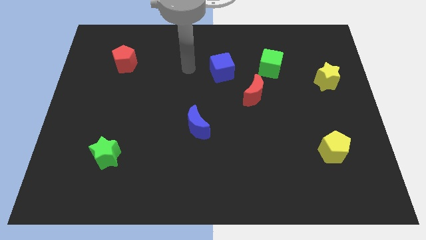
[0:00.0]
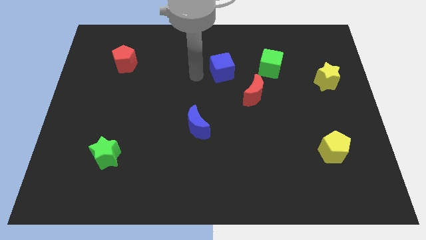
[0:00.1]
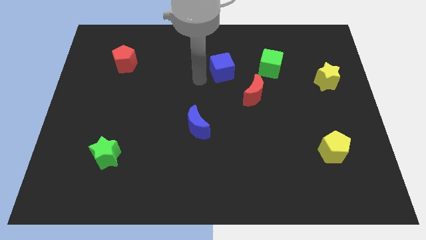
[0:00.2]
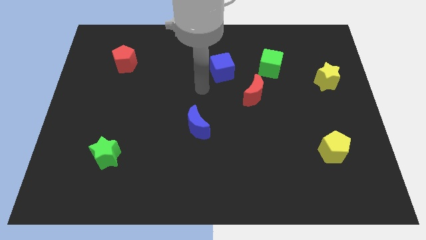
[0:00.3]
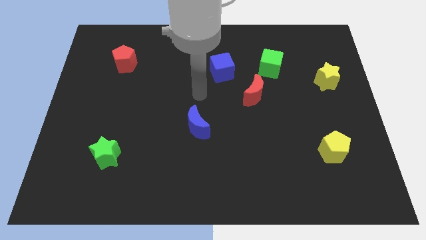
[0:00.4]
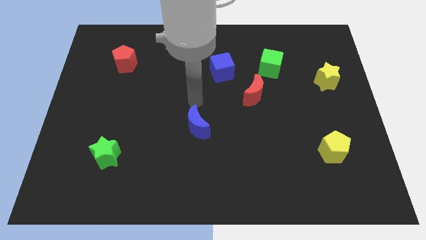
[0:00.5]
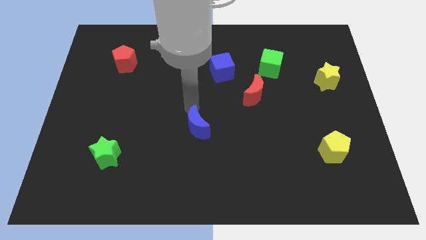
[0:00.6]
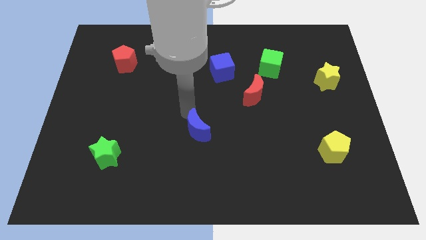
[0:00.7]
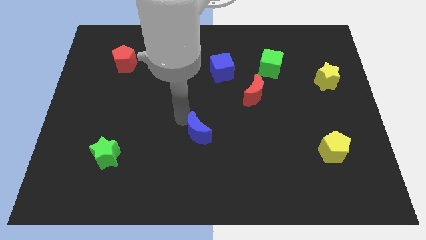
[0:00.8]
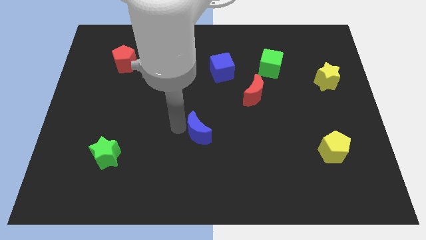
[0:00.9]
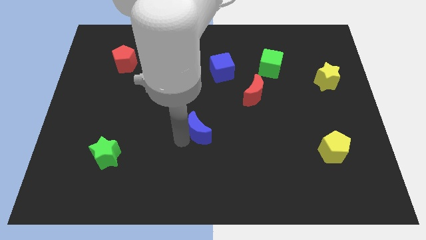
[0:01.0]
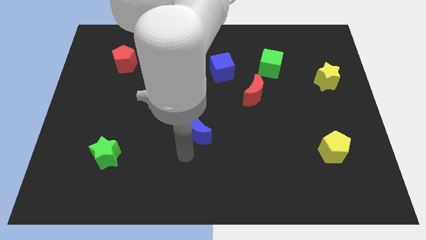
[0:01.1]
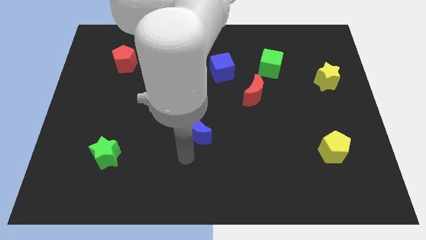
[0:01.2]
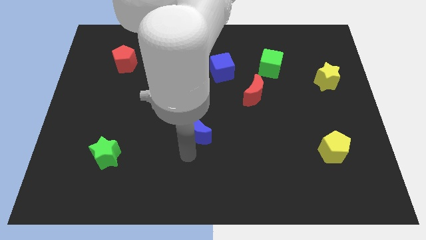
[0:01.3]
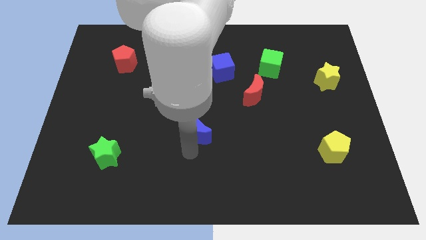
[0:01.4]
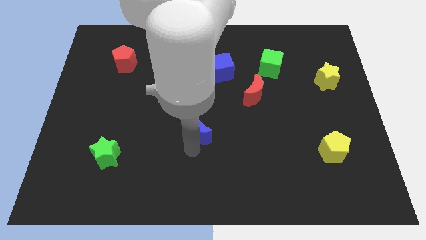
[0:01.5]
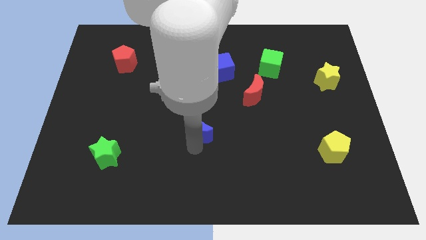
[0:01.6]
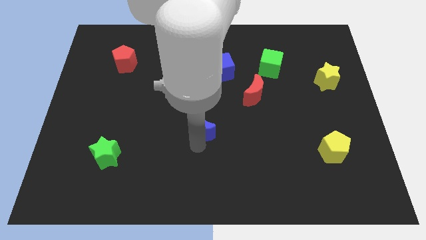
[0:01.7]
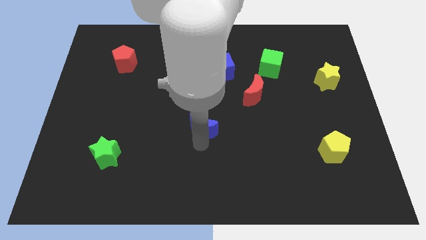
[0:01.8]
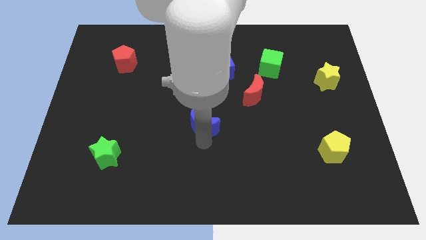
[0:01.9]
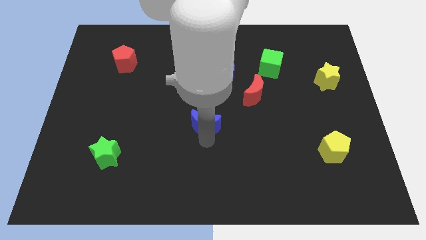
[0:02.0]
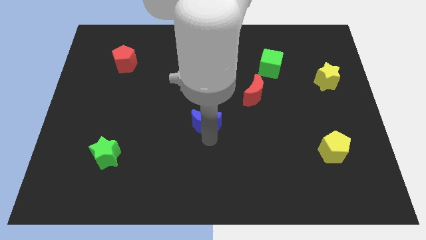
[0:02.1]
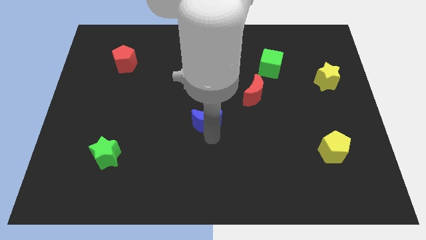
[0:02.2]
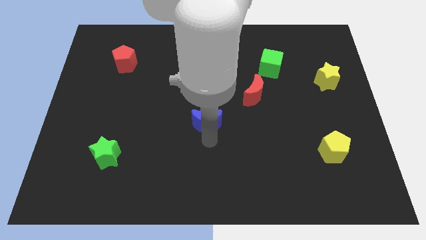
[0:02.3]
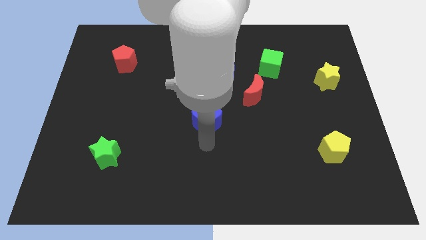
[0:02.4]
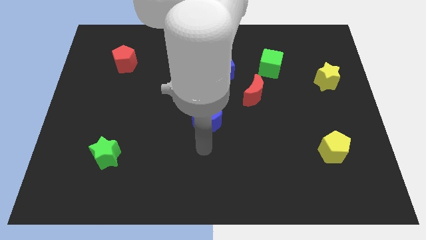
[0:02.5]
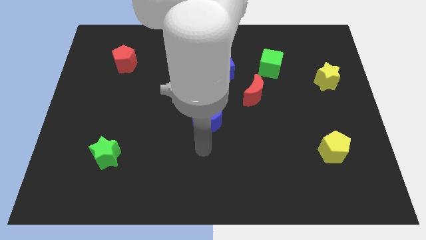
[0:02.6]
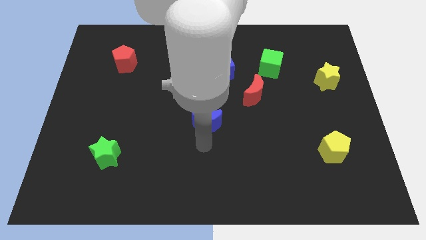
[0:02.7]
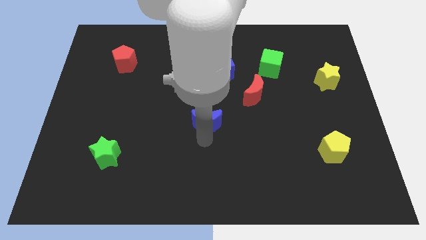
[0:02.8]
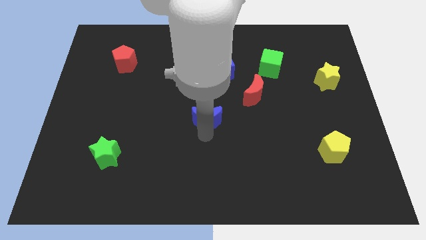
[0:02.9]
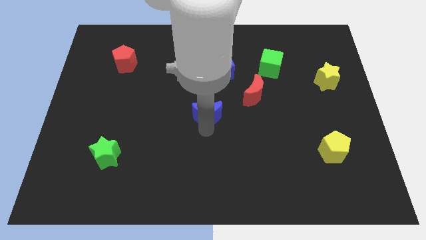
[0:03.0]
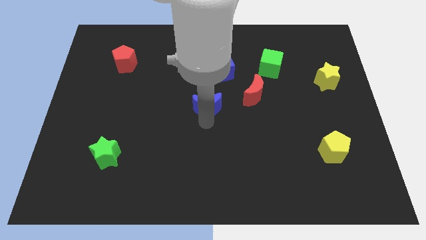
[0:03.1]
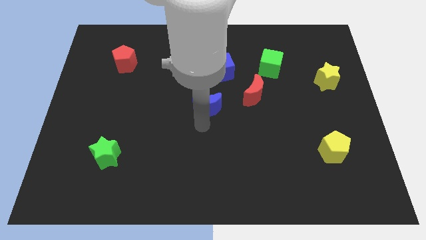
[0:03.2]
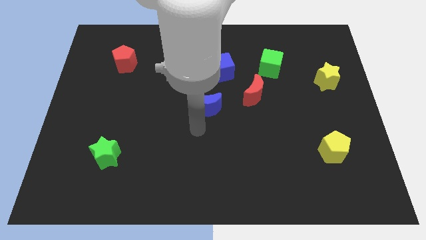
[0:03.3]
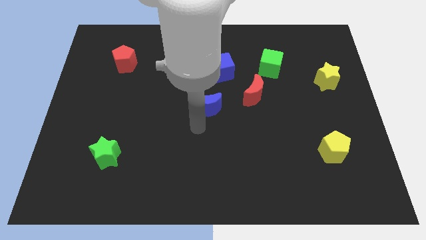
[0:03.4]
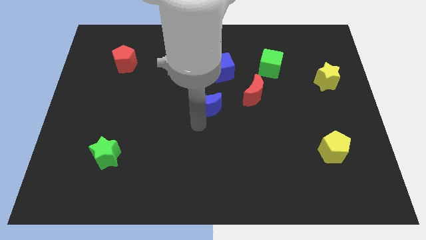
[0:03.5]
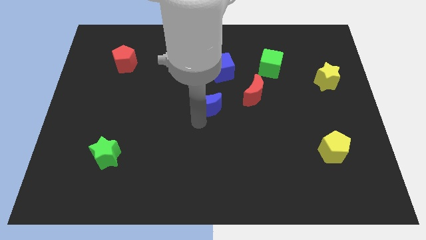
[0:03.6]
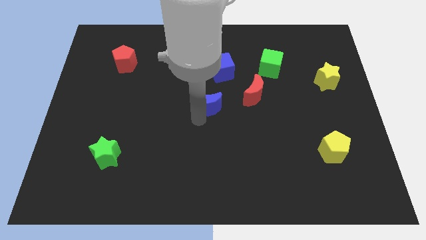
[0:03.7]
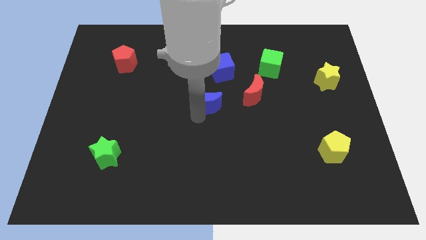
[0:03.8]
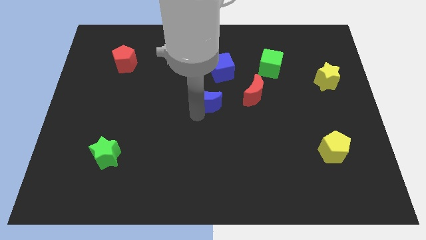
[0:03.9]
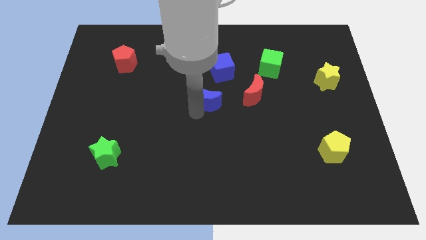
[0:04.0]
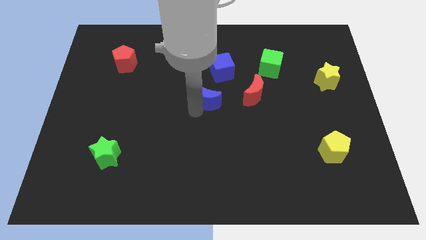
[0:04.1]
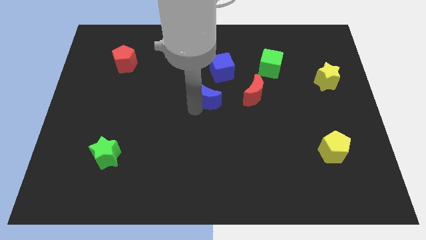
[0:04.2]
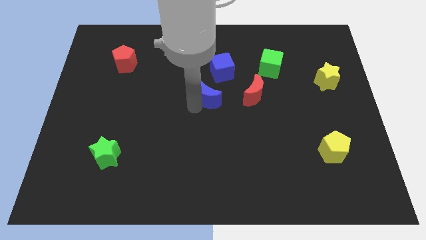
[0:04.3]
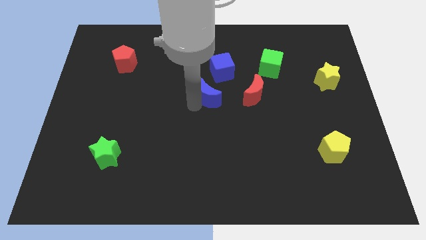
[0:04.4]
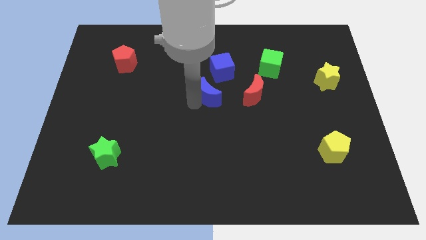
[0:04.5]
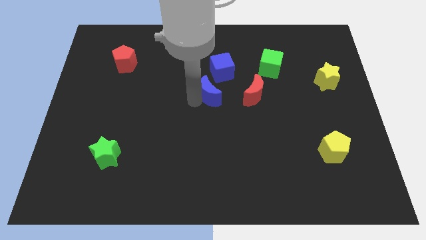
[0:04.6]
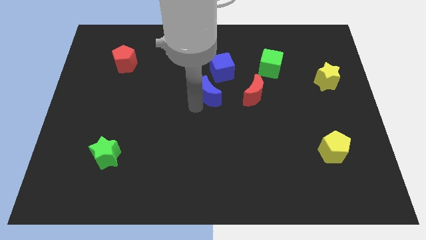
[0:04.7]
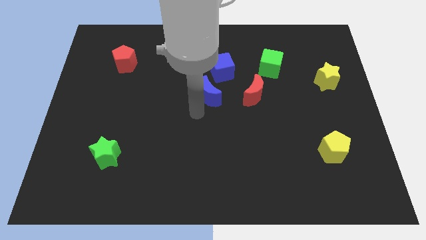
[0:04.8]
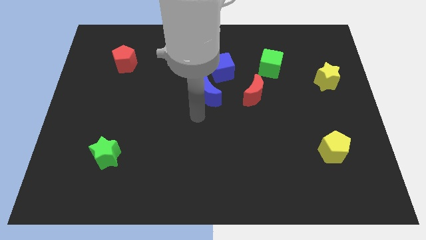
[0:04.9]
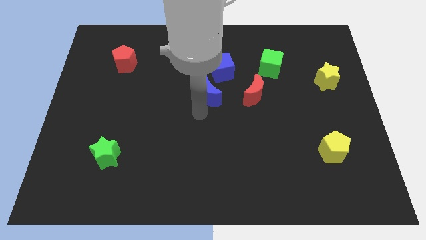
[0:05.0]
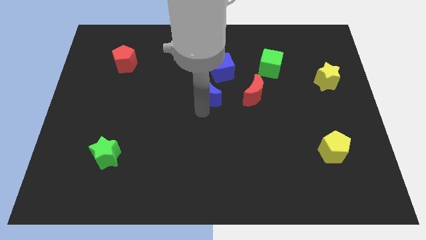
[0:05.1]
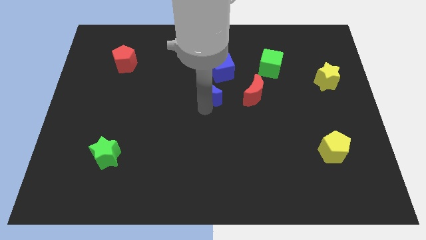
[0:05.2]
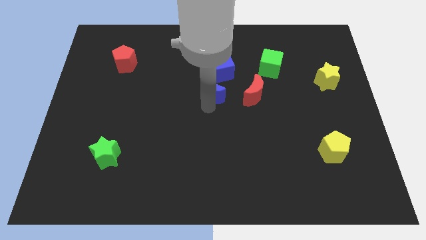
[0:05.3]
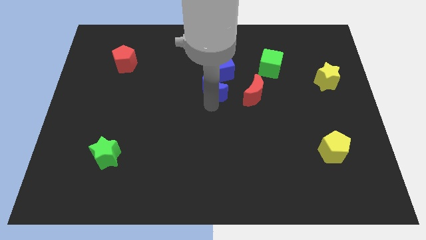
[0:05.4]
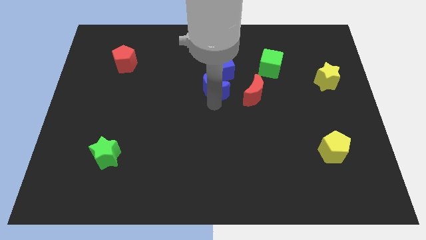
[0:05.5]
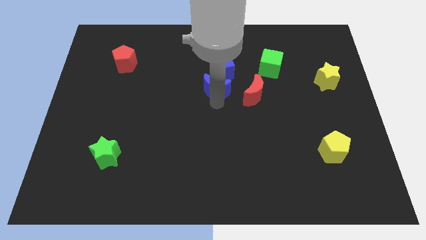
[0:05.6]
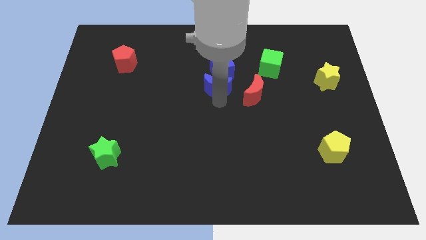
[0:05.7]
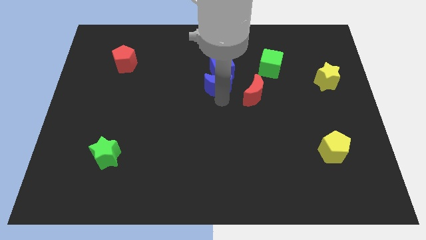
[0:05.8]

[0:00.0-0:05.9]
push the blue moon to the blue cube

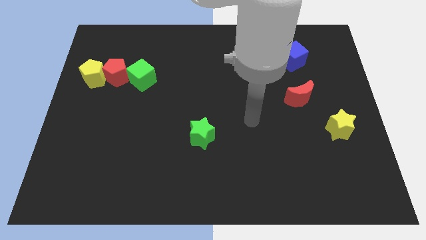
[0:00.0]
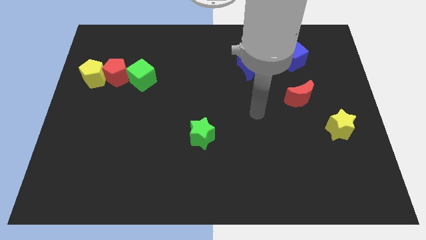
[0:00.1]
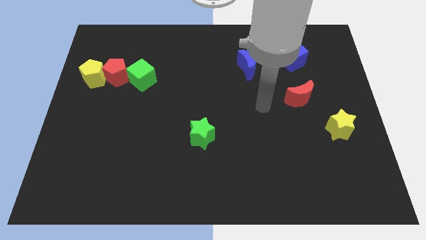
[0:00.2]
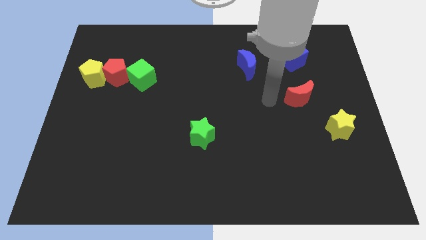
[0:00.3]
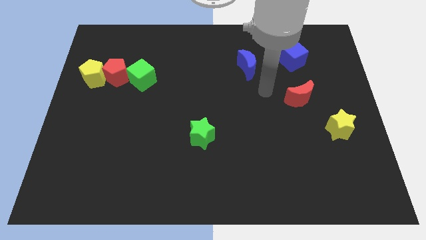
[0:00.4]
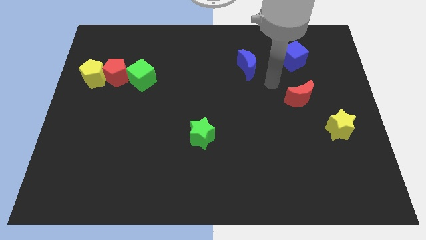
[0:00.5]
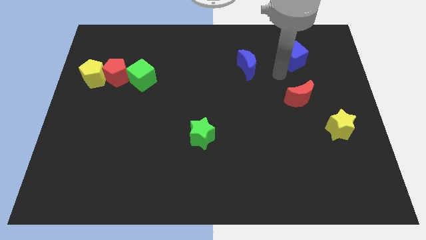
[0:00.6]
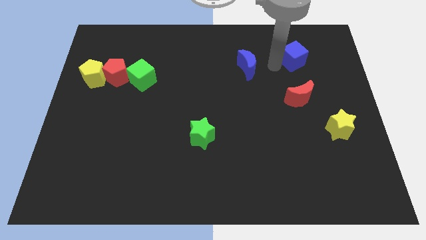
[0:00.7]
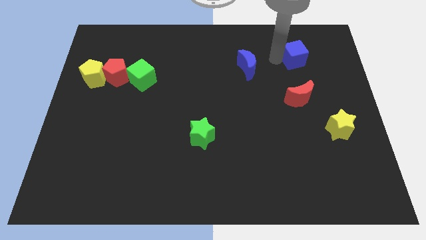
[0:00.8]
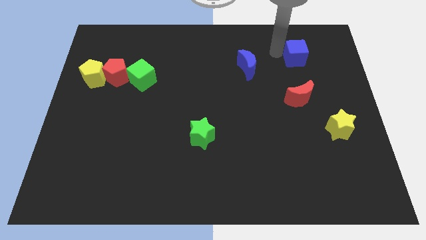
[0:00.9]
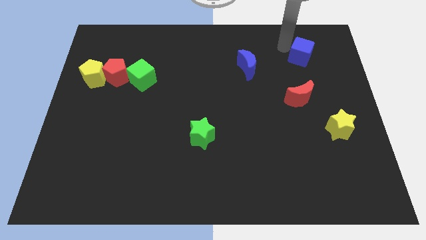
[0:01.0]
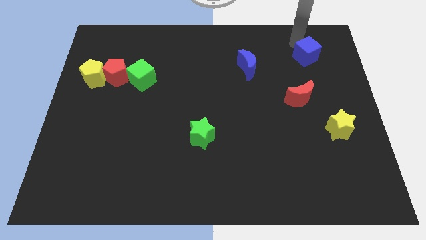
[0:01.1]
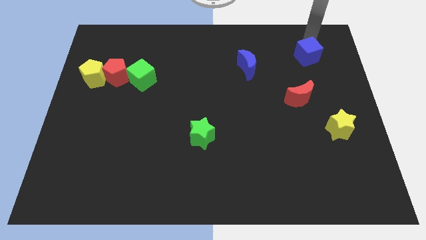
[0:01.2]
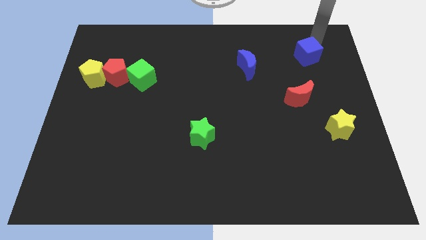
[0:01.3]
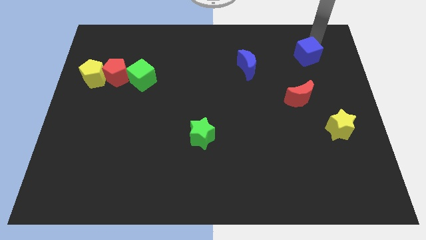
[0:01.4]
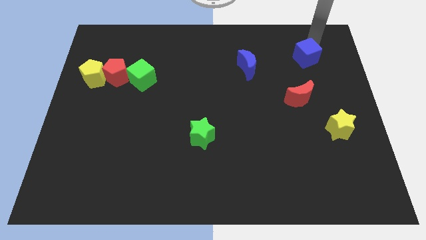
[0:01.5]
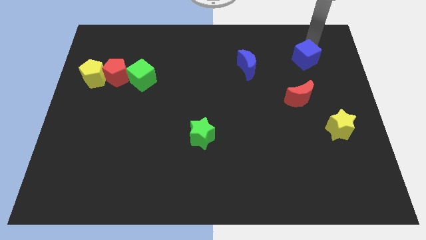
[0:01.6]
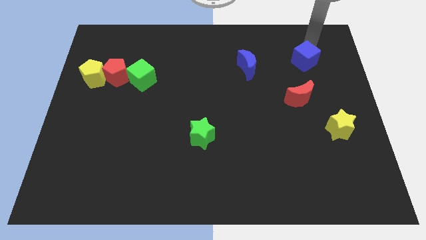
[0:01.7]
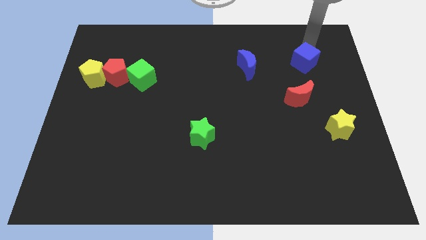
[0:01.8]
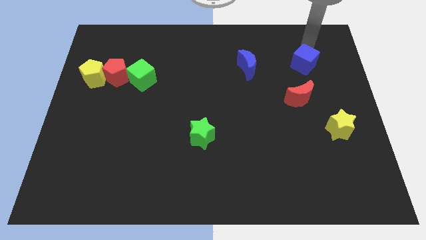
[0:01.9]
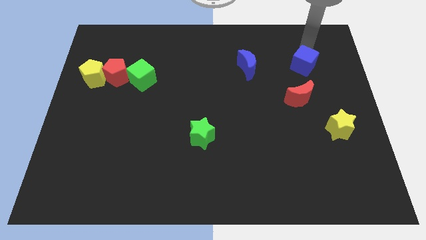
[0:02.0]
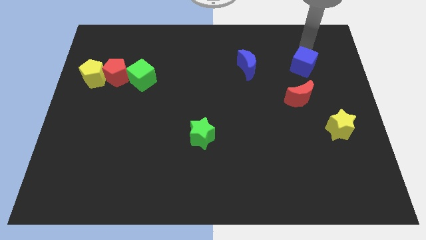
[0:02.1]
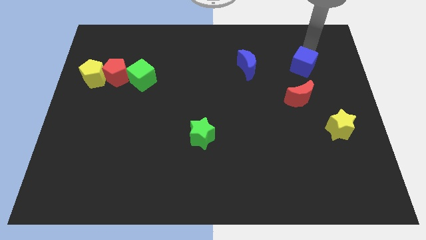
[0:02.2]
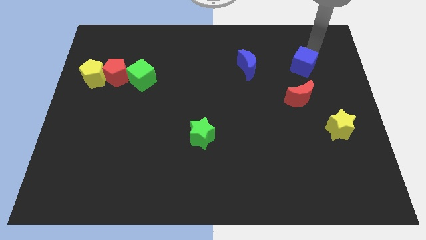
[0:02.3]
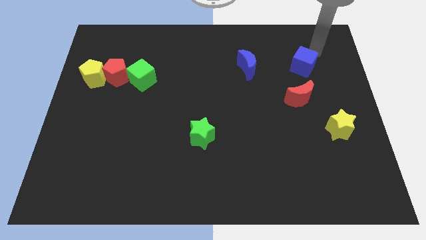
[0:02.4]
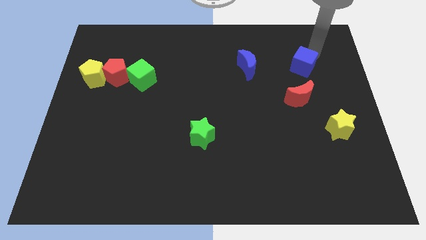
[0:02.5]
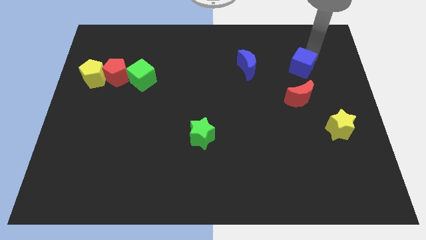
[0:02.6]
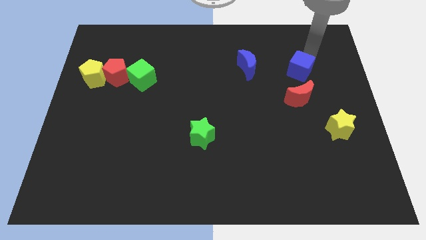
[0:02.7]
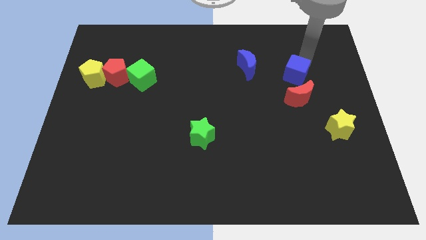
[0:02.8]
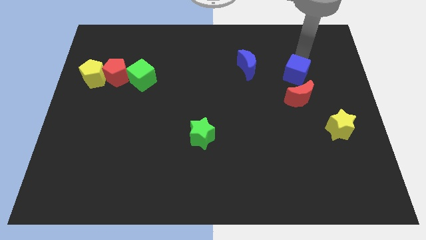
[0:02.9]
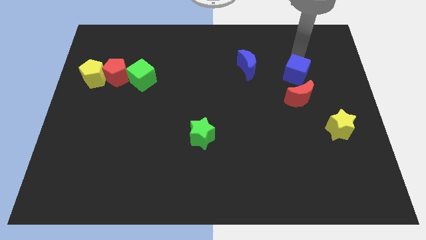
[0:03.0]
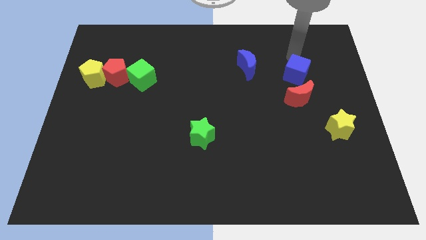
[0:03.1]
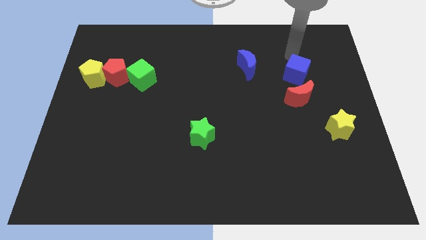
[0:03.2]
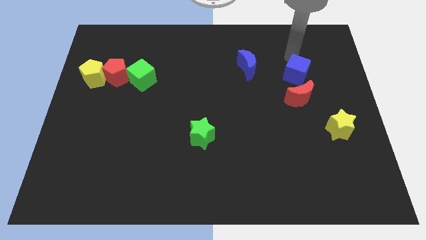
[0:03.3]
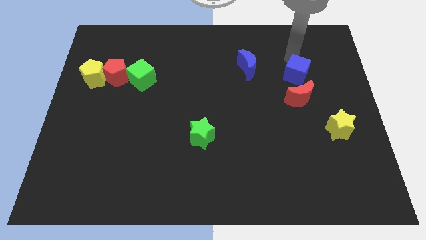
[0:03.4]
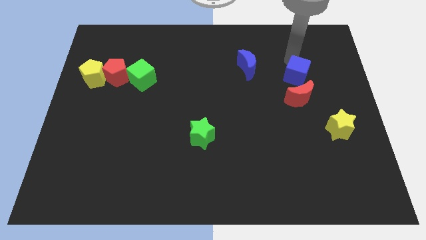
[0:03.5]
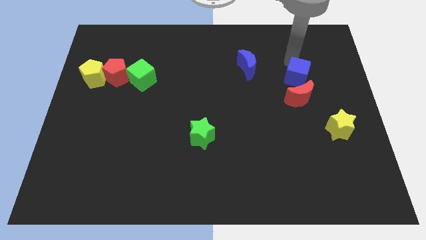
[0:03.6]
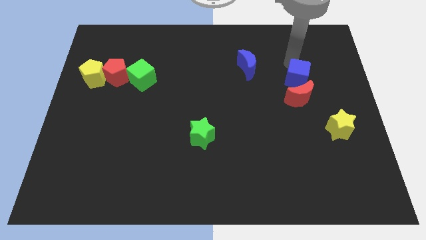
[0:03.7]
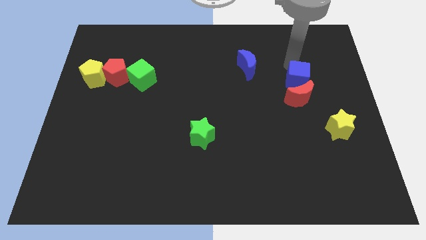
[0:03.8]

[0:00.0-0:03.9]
slide the blue cube towards the red moon
